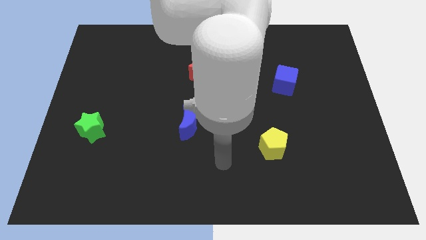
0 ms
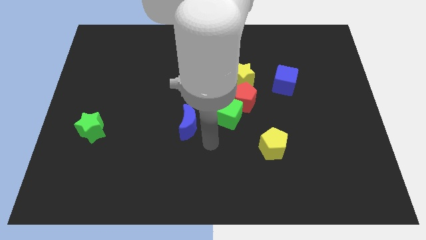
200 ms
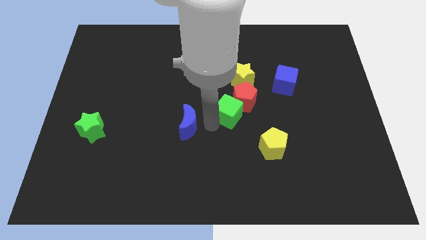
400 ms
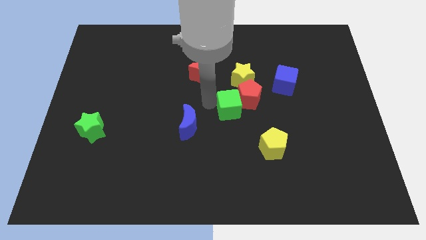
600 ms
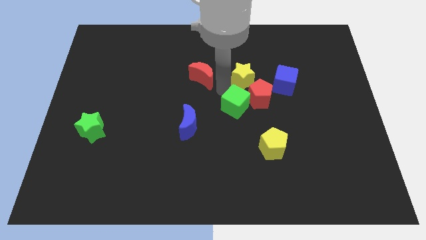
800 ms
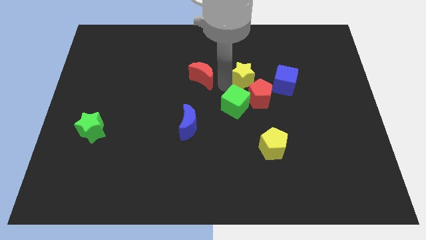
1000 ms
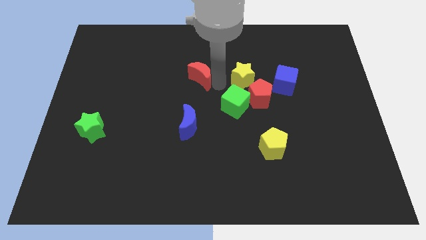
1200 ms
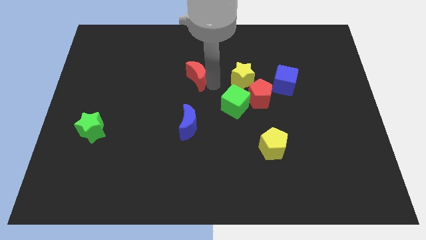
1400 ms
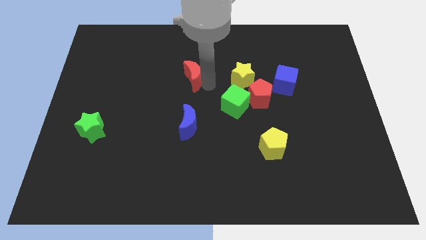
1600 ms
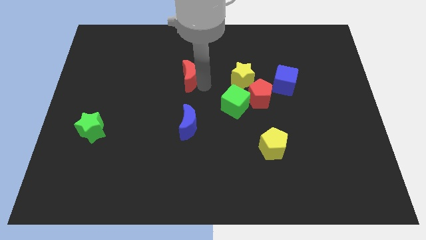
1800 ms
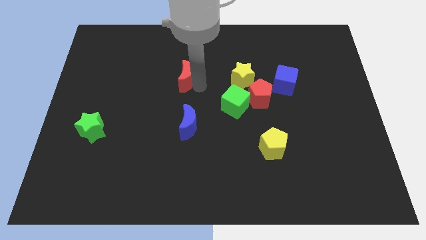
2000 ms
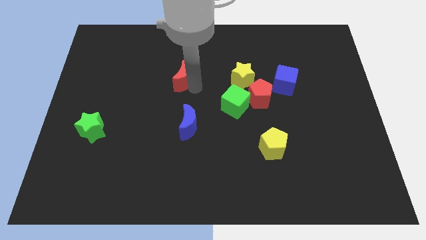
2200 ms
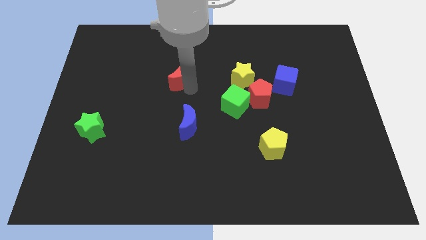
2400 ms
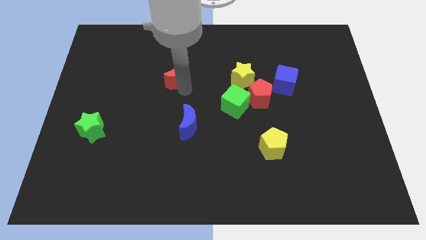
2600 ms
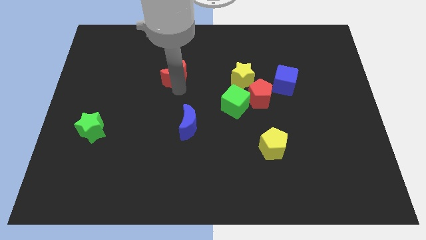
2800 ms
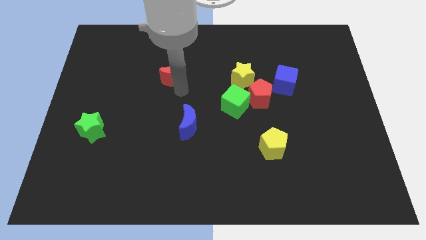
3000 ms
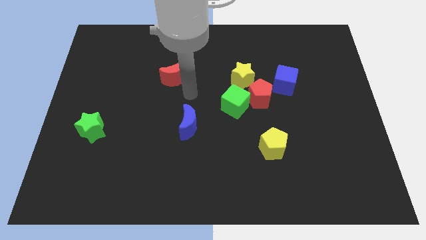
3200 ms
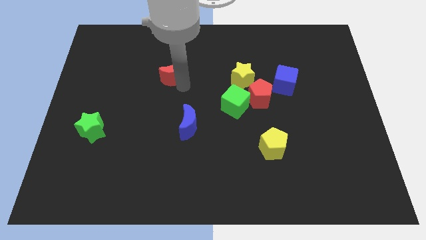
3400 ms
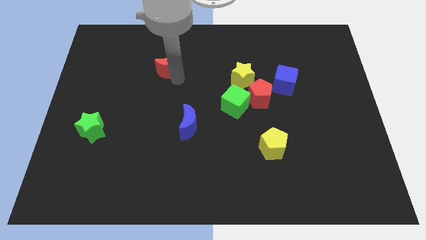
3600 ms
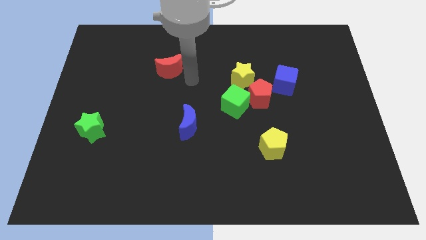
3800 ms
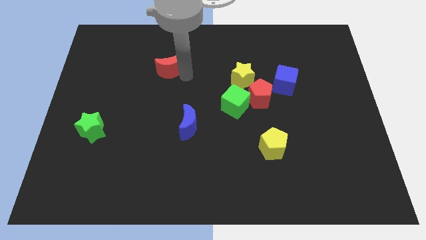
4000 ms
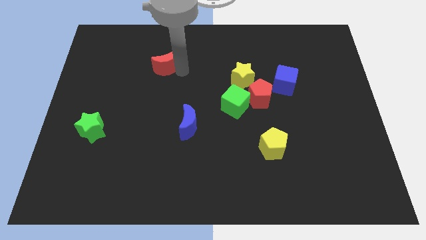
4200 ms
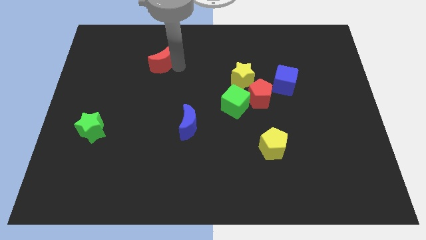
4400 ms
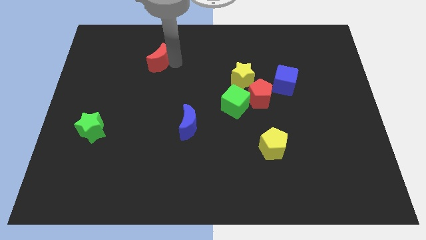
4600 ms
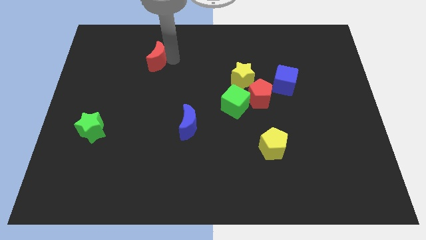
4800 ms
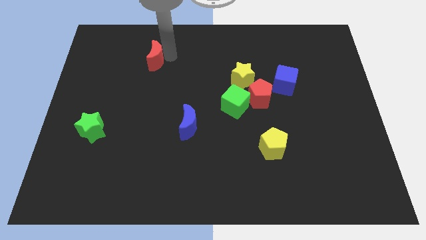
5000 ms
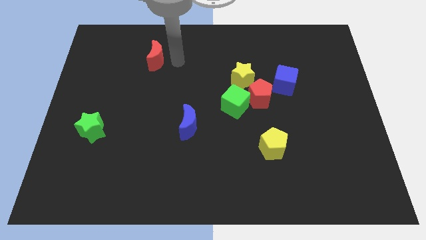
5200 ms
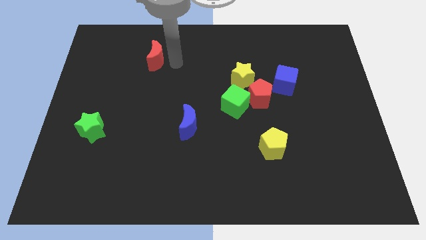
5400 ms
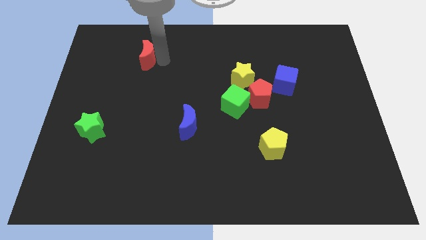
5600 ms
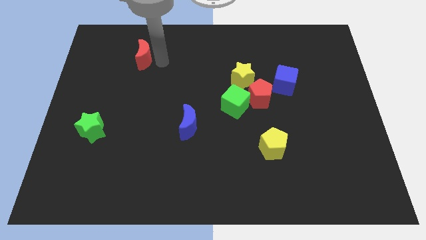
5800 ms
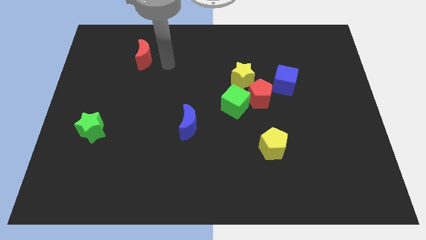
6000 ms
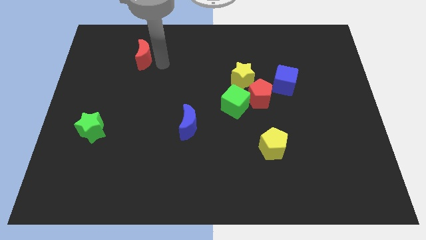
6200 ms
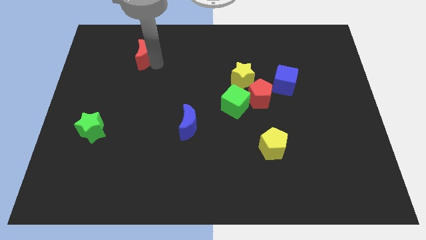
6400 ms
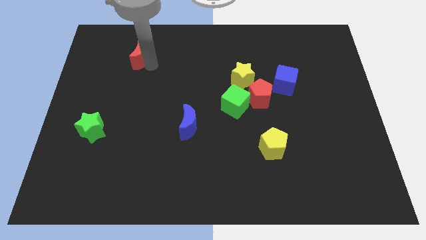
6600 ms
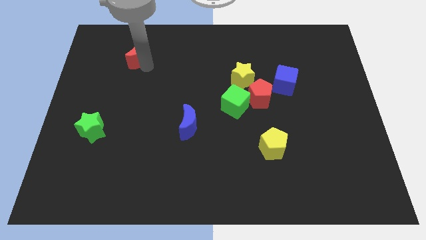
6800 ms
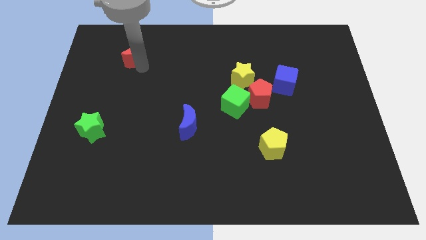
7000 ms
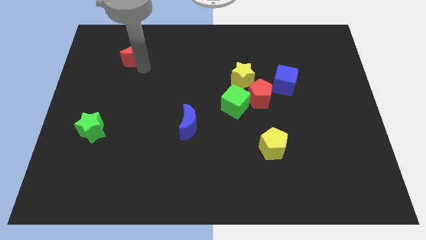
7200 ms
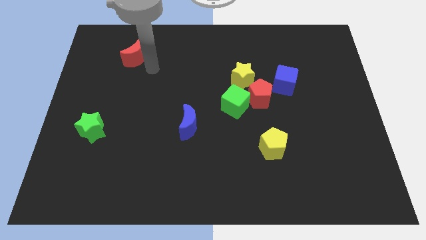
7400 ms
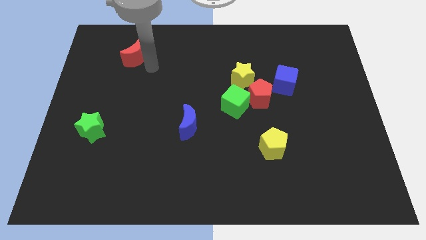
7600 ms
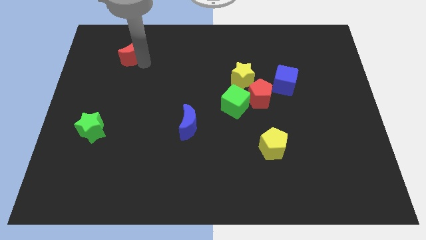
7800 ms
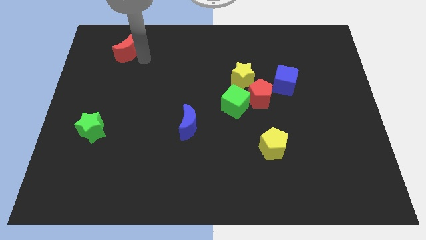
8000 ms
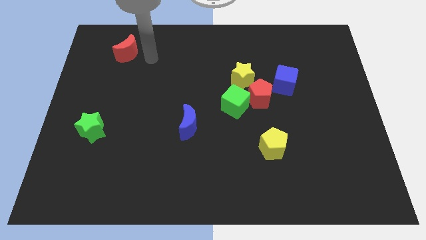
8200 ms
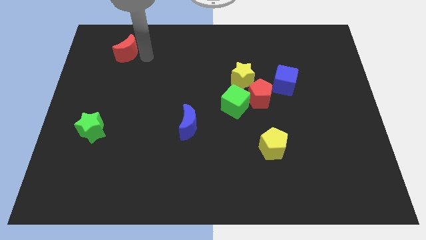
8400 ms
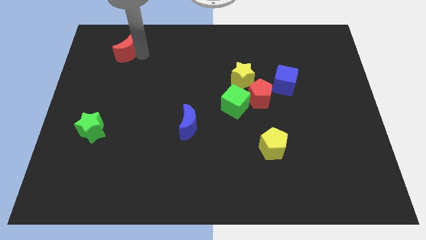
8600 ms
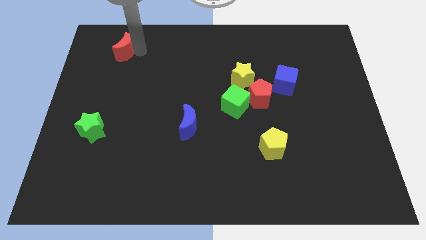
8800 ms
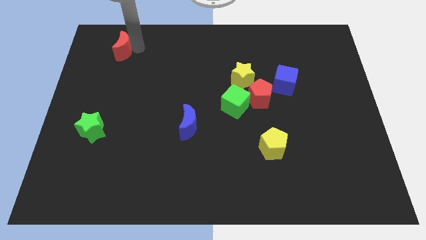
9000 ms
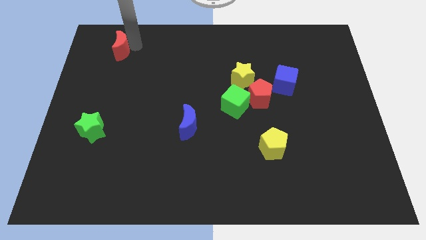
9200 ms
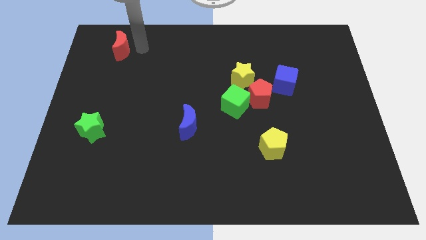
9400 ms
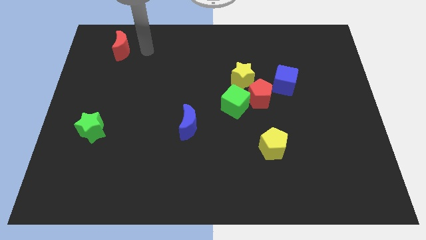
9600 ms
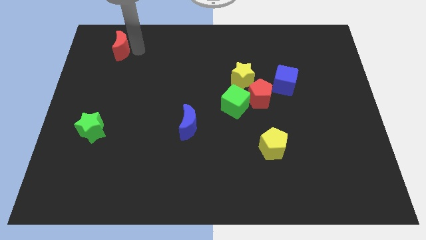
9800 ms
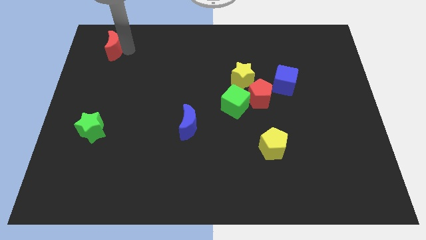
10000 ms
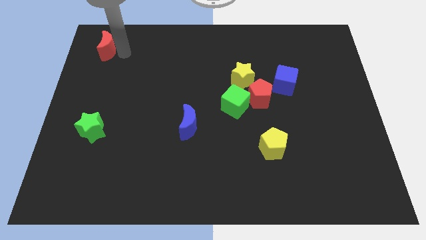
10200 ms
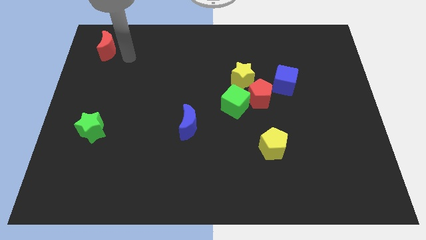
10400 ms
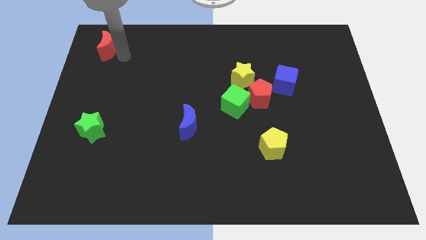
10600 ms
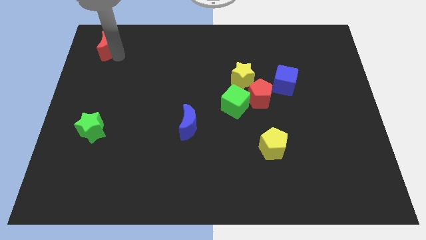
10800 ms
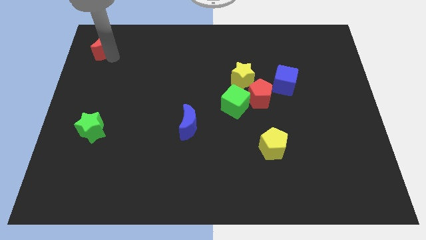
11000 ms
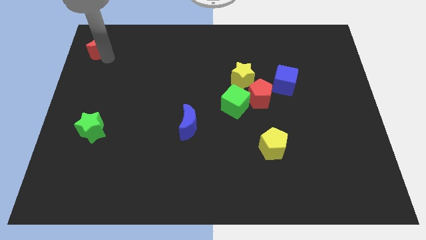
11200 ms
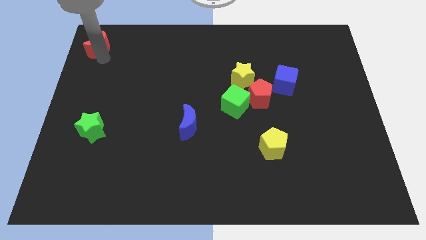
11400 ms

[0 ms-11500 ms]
push the red moon to the top left of the board
